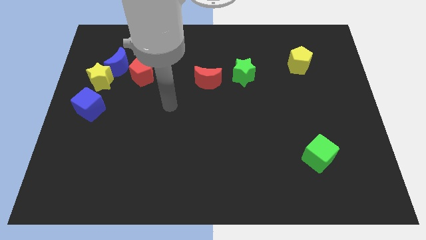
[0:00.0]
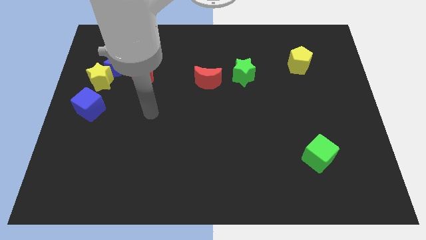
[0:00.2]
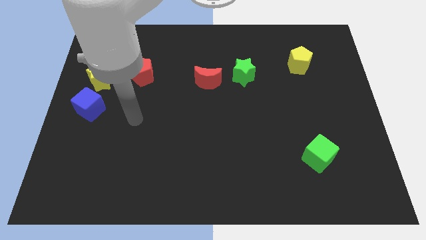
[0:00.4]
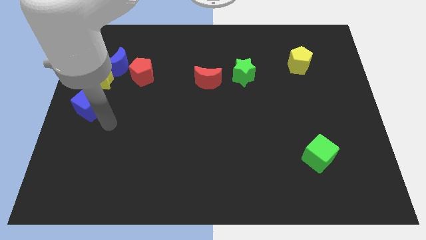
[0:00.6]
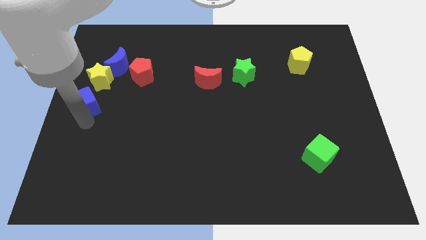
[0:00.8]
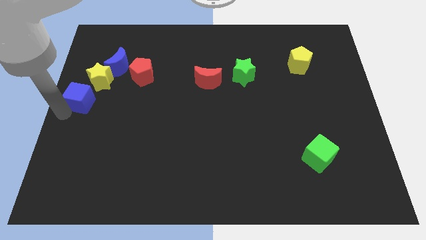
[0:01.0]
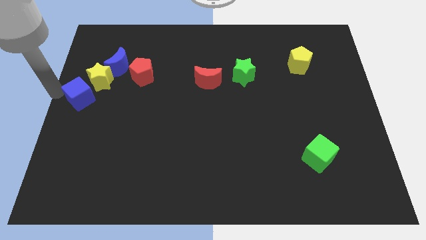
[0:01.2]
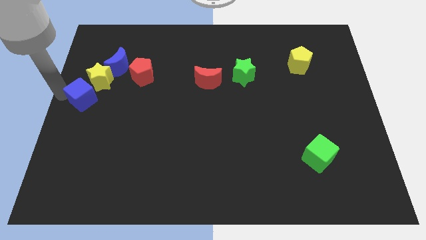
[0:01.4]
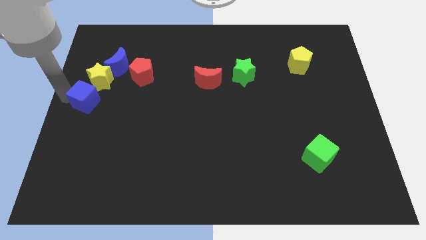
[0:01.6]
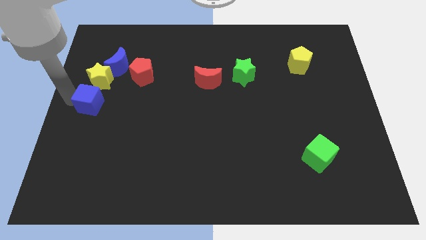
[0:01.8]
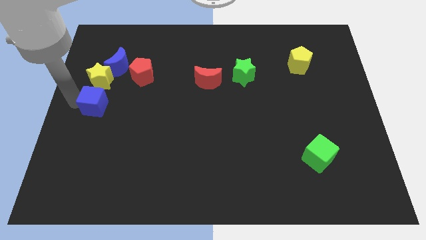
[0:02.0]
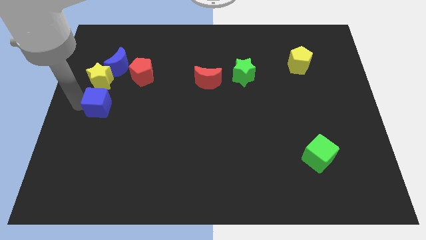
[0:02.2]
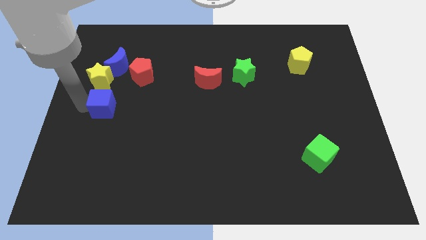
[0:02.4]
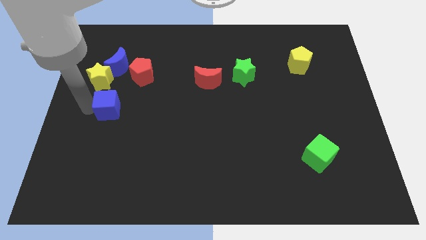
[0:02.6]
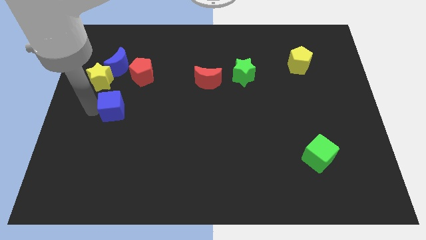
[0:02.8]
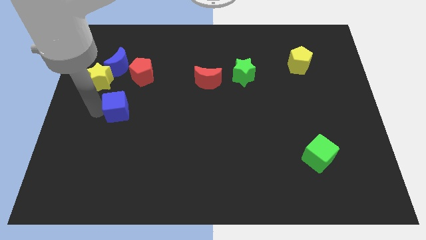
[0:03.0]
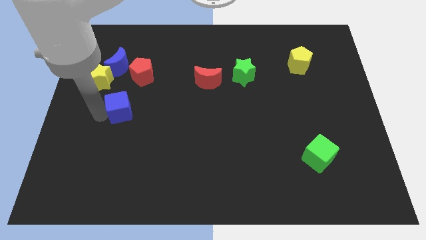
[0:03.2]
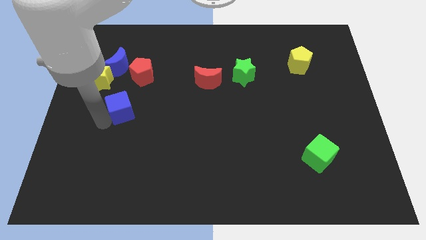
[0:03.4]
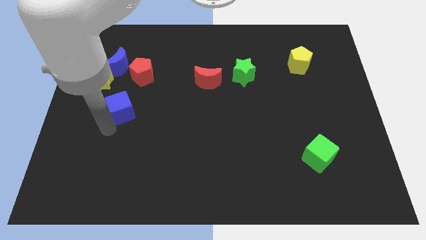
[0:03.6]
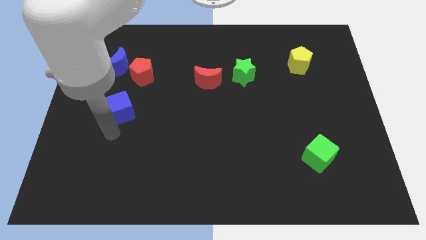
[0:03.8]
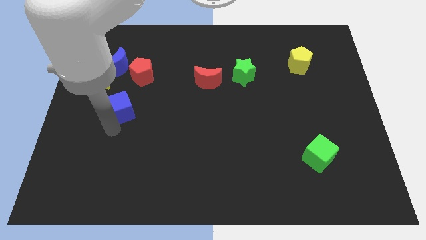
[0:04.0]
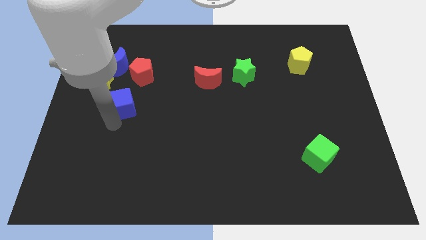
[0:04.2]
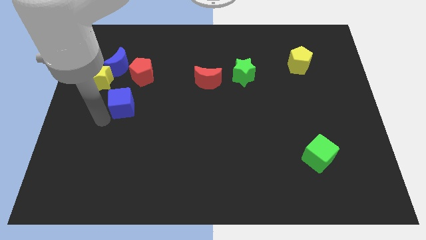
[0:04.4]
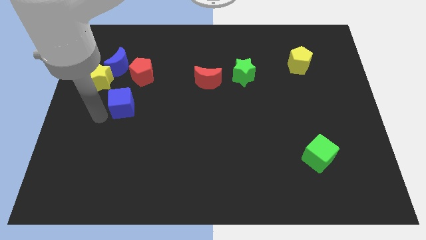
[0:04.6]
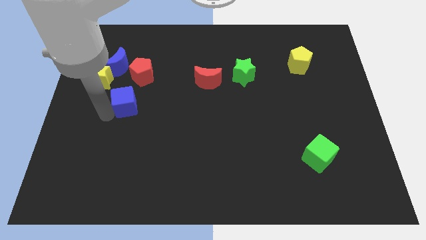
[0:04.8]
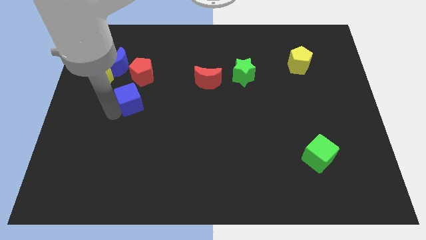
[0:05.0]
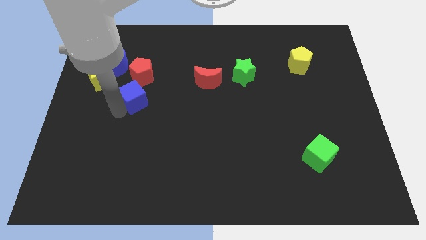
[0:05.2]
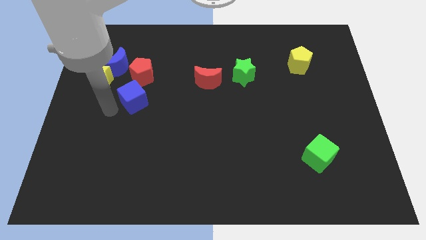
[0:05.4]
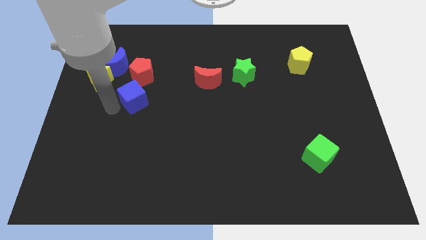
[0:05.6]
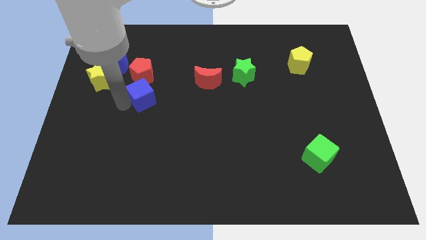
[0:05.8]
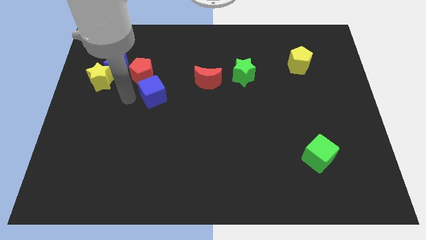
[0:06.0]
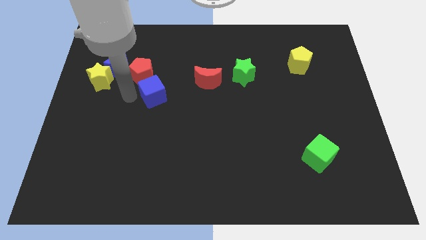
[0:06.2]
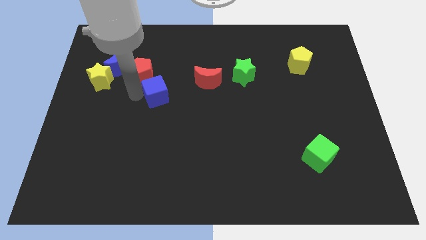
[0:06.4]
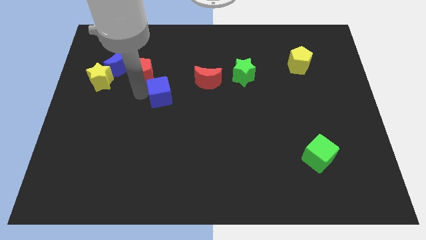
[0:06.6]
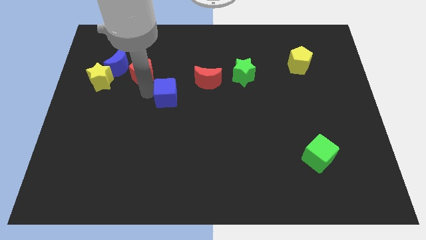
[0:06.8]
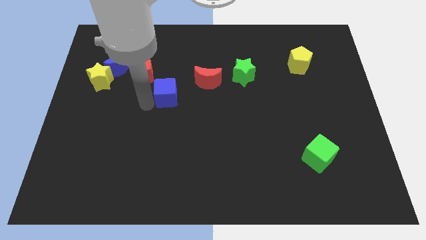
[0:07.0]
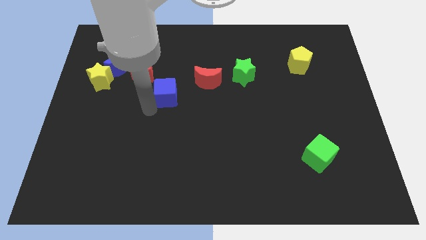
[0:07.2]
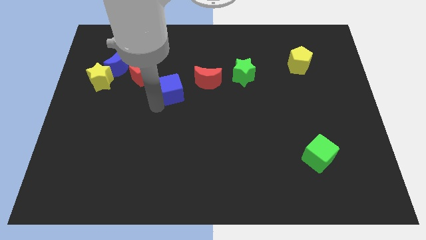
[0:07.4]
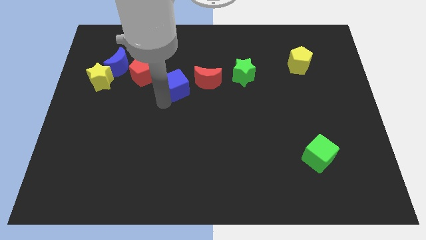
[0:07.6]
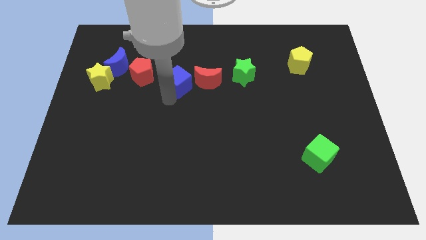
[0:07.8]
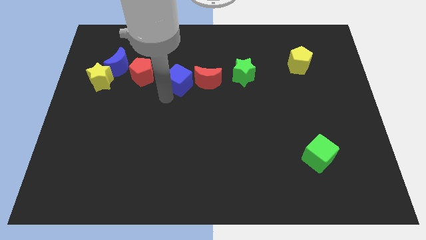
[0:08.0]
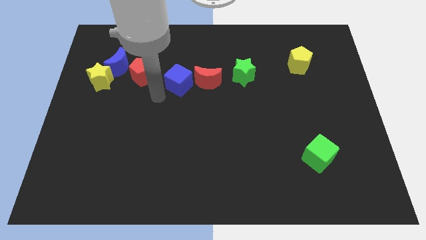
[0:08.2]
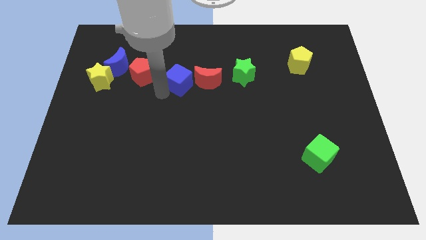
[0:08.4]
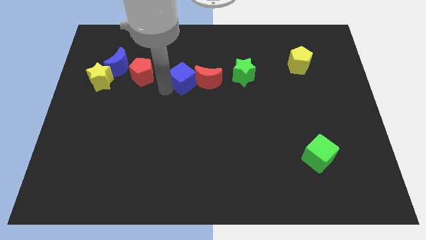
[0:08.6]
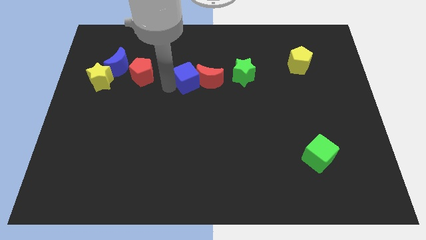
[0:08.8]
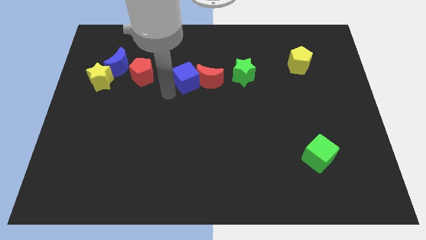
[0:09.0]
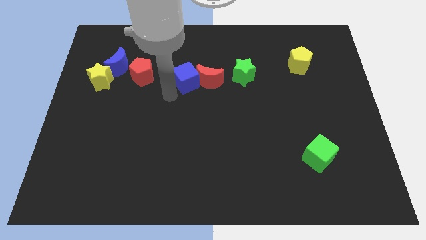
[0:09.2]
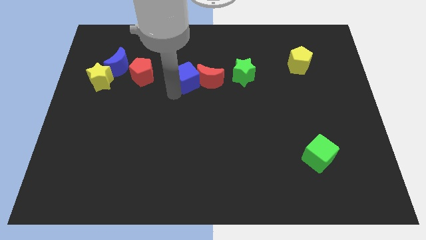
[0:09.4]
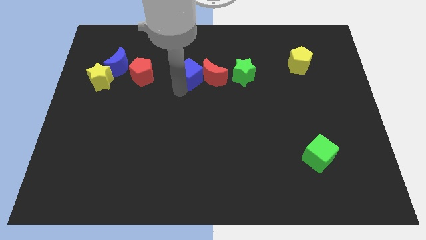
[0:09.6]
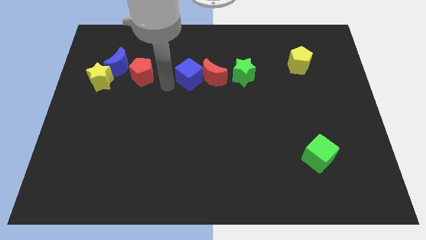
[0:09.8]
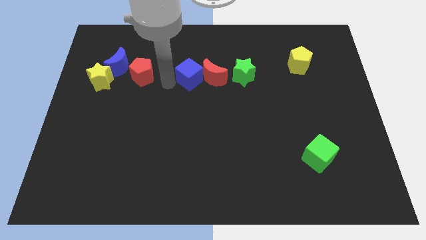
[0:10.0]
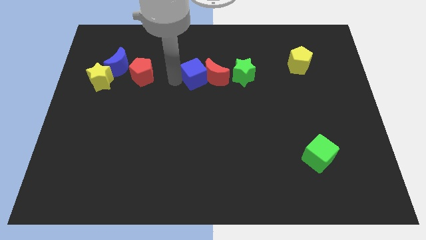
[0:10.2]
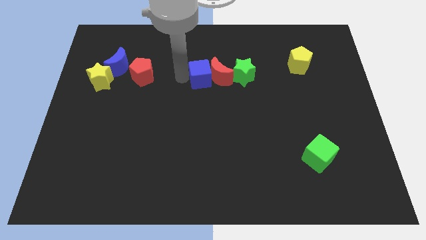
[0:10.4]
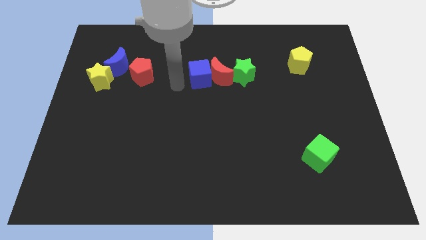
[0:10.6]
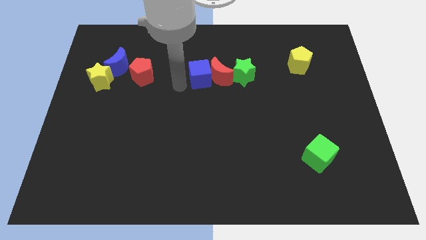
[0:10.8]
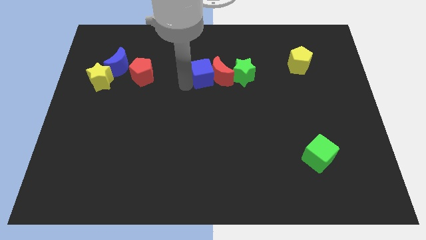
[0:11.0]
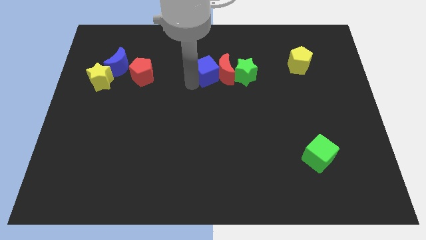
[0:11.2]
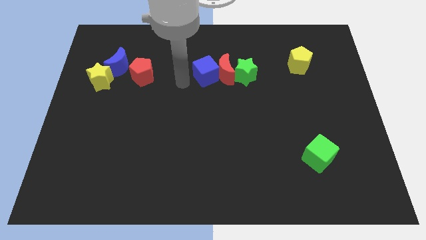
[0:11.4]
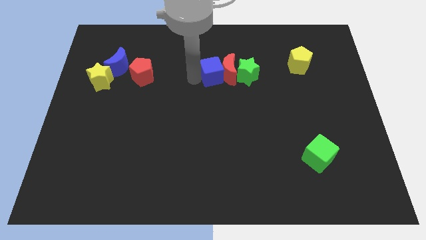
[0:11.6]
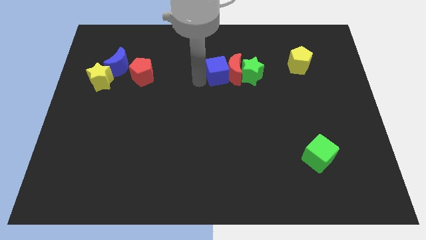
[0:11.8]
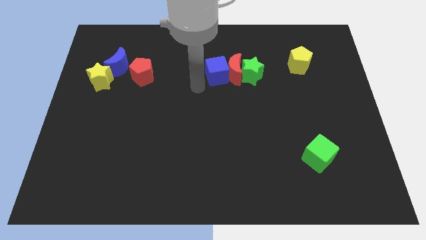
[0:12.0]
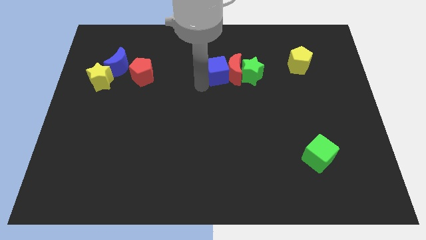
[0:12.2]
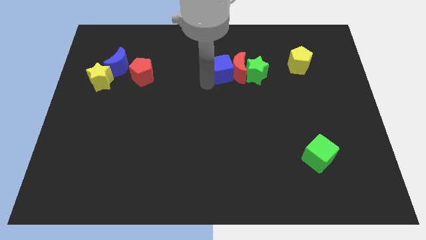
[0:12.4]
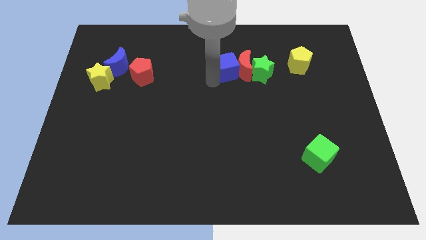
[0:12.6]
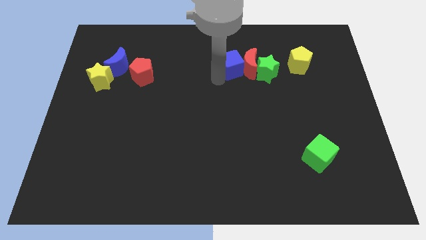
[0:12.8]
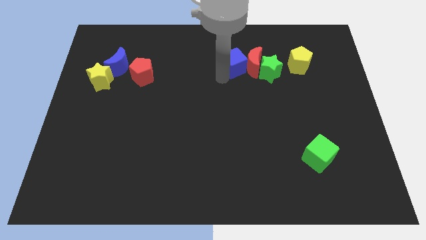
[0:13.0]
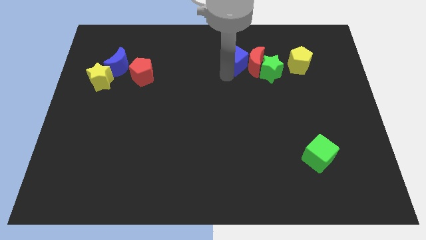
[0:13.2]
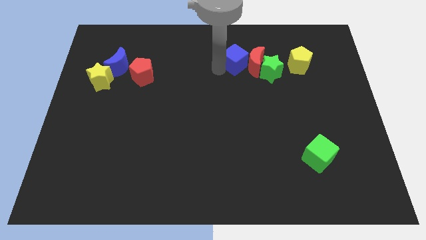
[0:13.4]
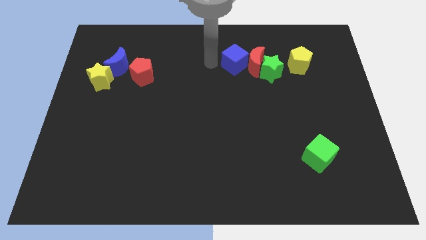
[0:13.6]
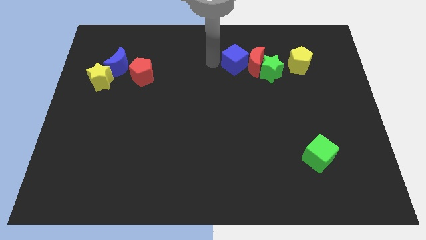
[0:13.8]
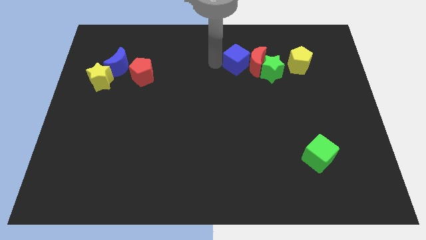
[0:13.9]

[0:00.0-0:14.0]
move the blue cube to the left of the yellow pentagon

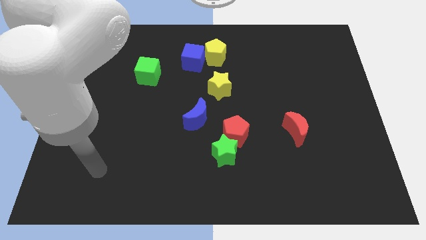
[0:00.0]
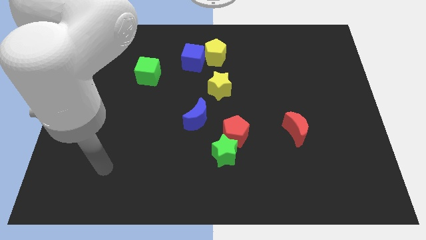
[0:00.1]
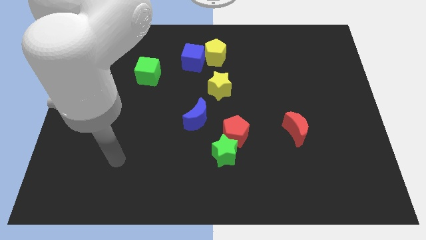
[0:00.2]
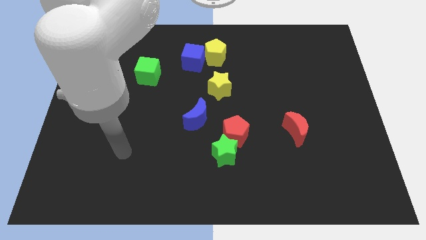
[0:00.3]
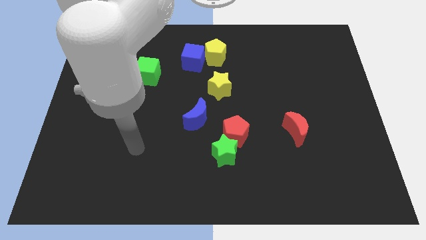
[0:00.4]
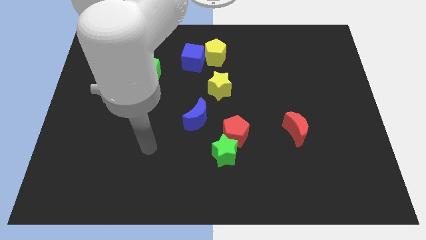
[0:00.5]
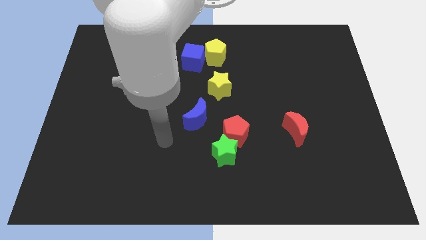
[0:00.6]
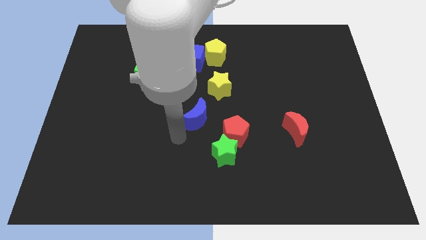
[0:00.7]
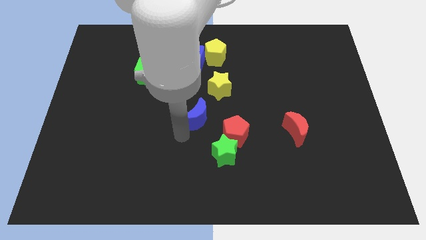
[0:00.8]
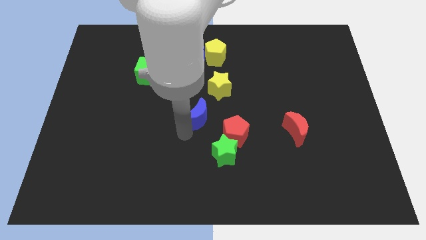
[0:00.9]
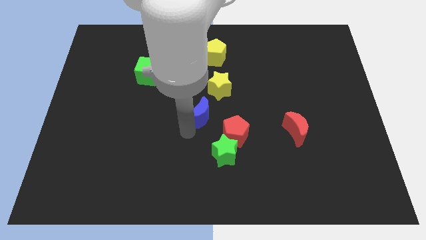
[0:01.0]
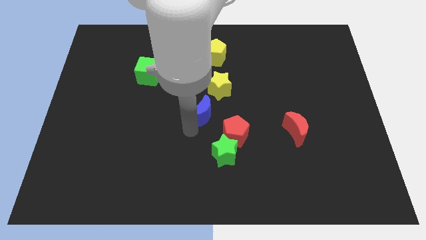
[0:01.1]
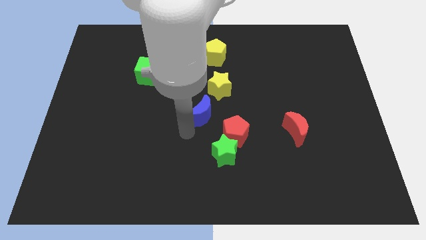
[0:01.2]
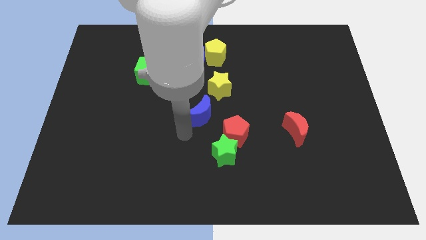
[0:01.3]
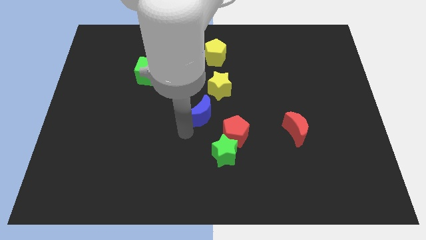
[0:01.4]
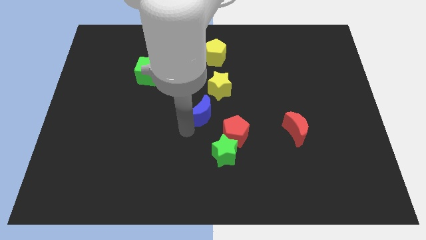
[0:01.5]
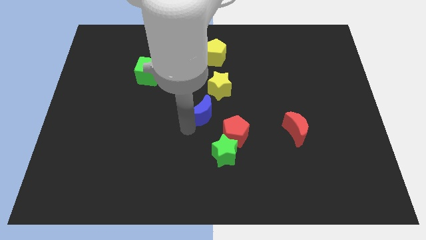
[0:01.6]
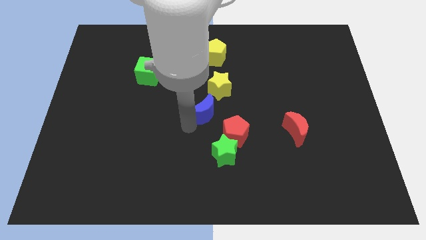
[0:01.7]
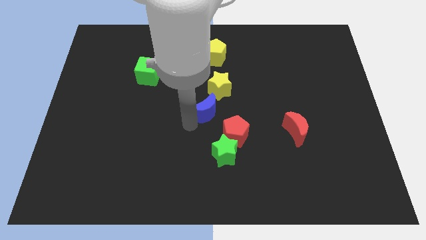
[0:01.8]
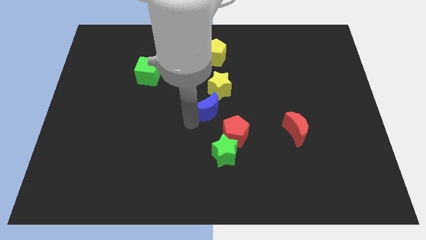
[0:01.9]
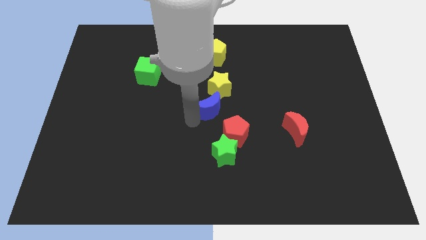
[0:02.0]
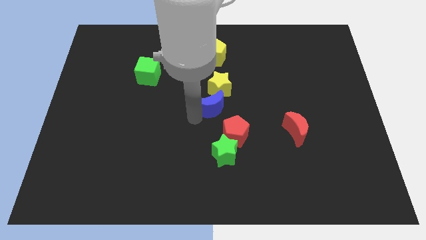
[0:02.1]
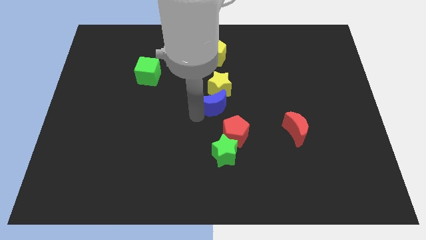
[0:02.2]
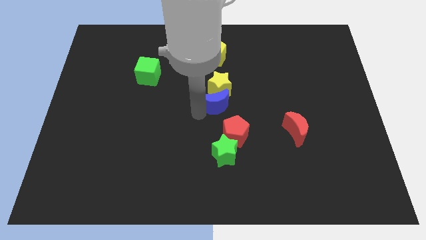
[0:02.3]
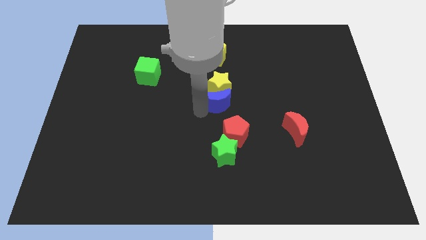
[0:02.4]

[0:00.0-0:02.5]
slide the blue moon to the bottom of the yellow pentagon
